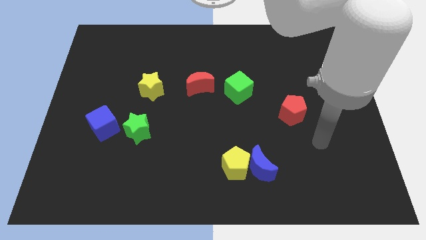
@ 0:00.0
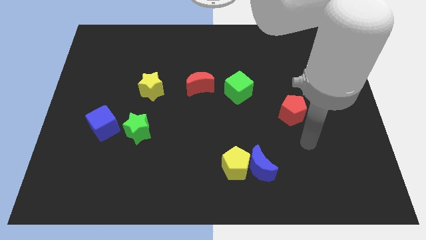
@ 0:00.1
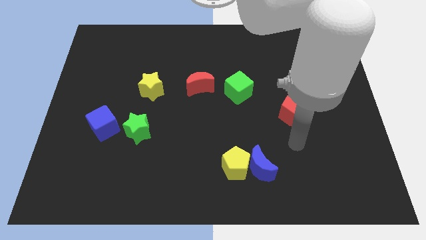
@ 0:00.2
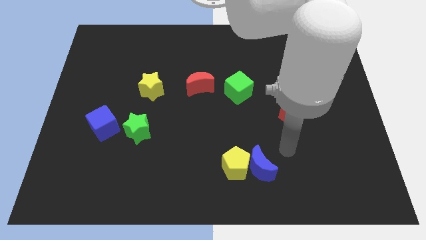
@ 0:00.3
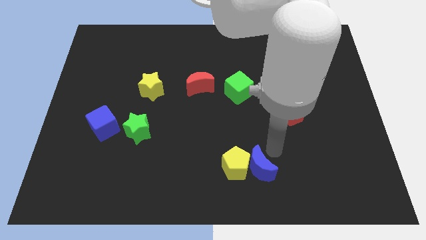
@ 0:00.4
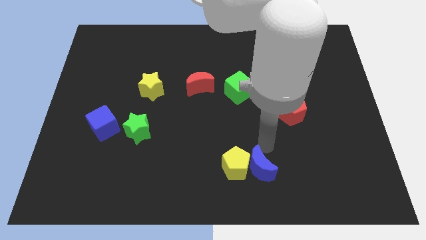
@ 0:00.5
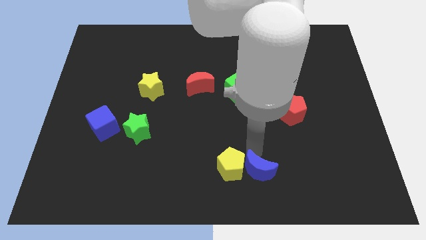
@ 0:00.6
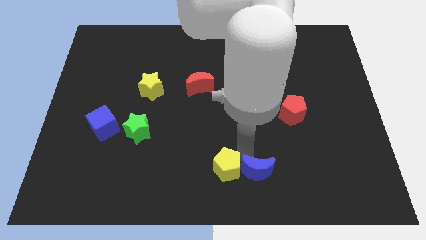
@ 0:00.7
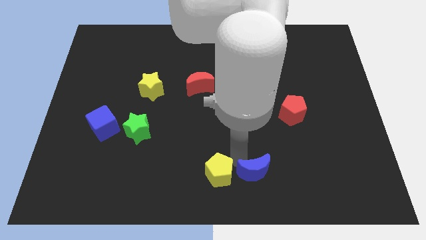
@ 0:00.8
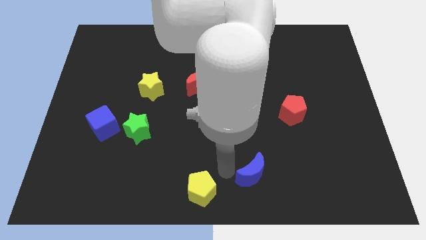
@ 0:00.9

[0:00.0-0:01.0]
move the blue moon away from the yellow pentagon

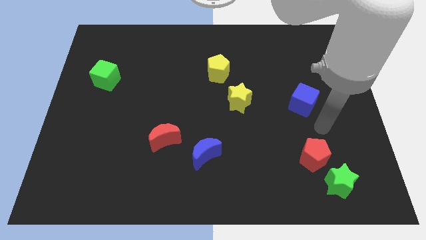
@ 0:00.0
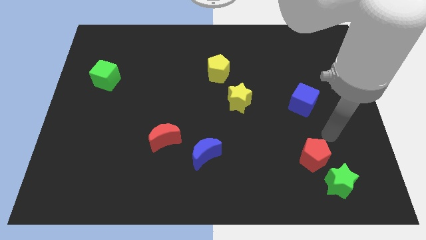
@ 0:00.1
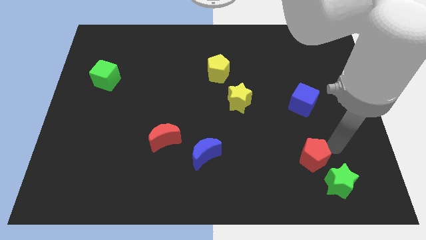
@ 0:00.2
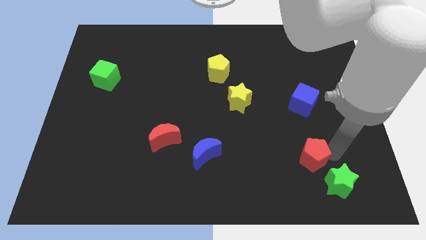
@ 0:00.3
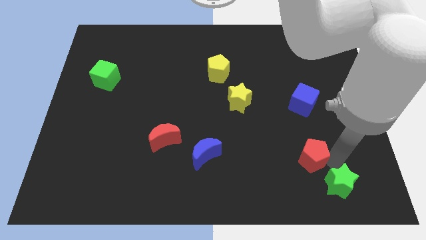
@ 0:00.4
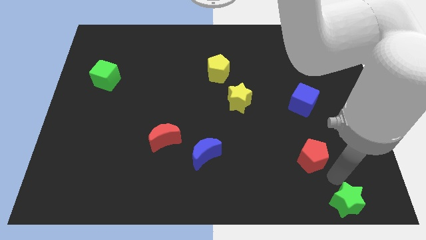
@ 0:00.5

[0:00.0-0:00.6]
pull the red pentagon apart from the green star

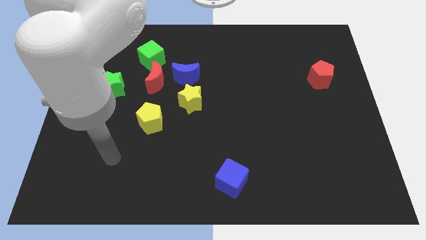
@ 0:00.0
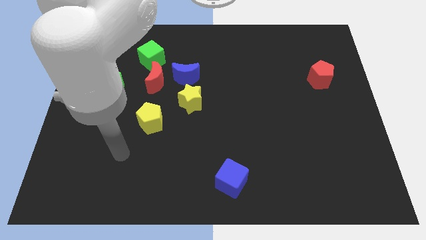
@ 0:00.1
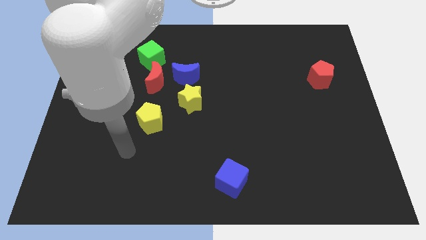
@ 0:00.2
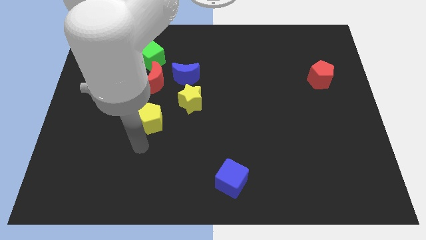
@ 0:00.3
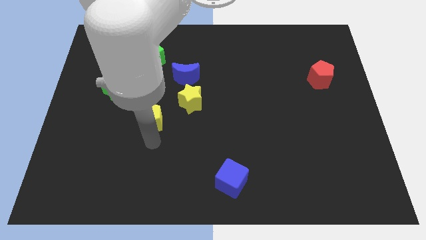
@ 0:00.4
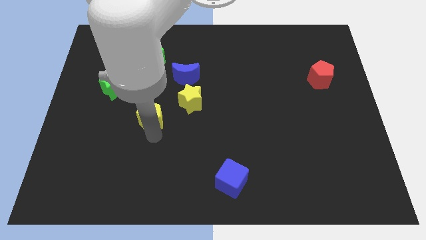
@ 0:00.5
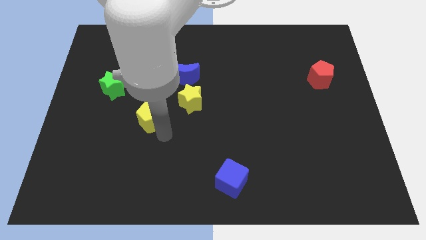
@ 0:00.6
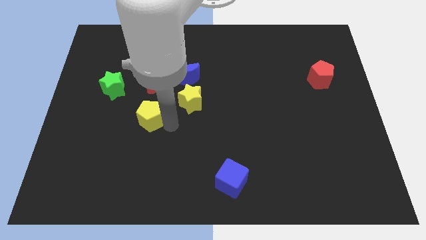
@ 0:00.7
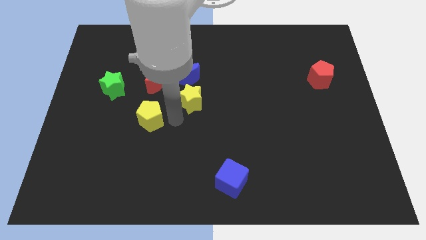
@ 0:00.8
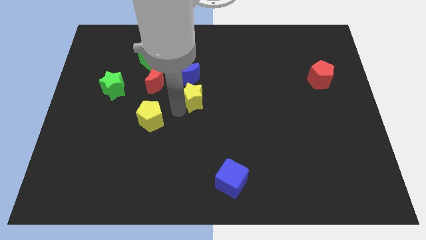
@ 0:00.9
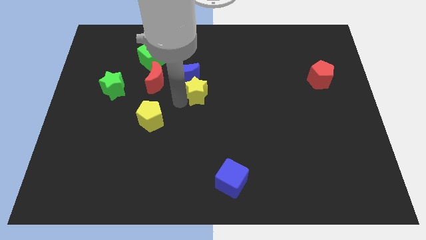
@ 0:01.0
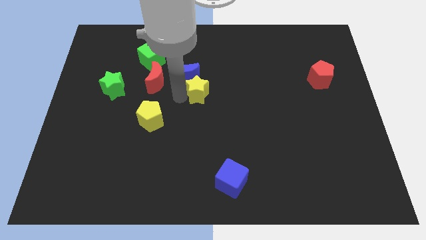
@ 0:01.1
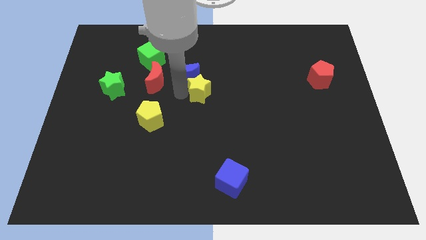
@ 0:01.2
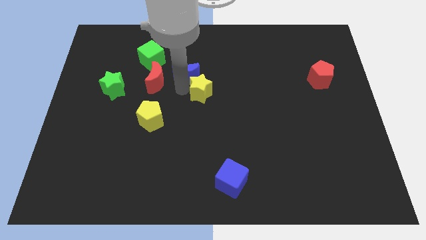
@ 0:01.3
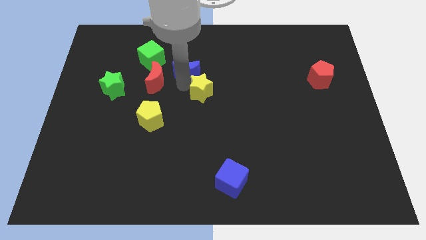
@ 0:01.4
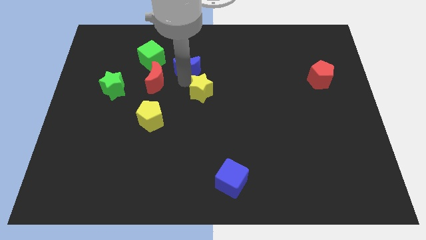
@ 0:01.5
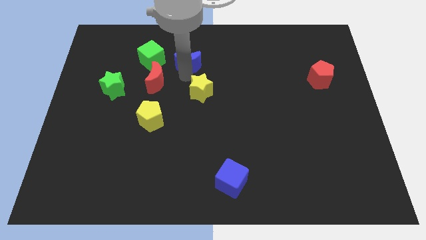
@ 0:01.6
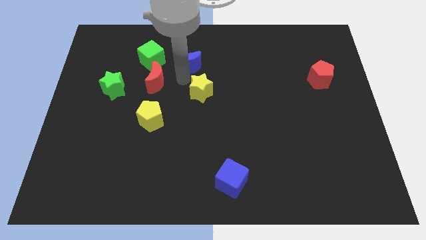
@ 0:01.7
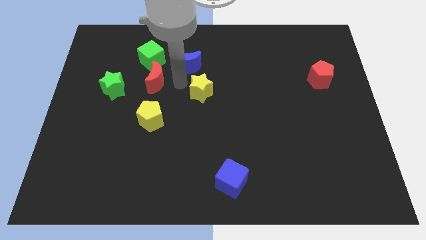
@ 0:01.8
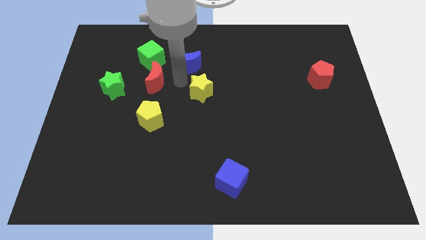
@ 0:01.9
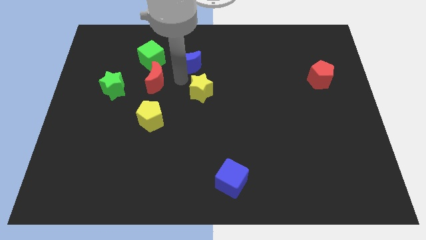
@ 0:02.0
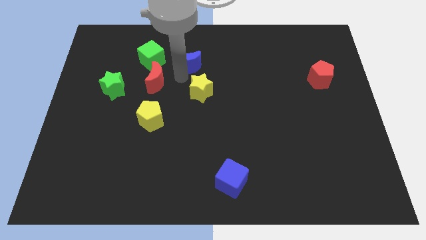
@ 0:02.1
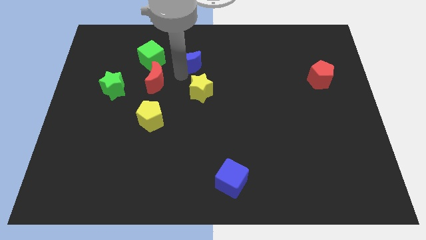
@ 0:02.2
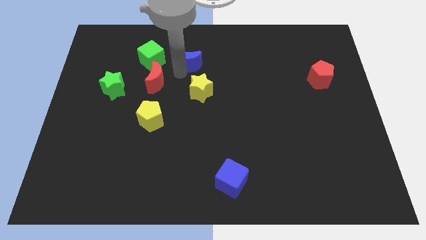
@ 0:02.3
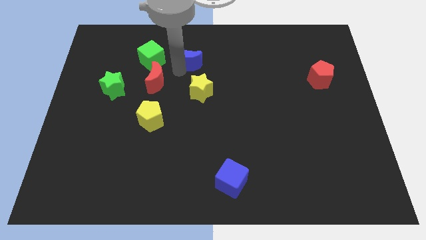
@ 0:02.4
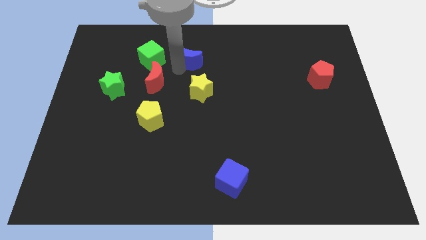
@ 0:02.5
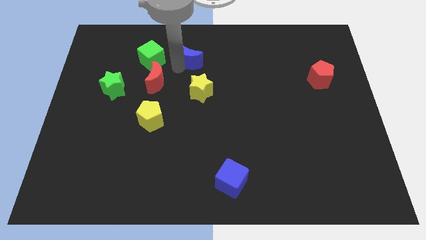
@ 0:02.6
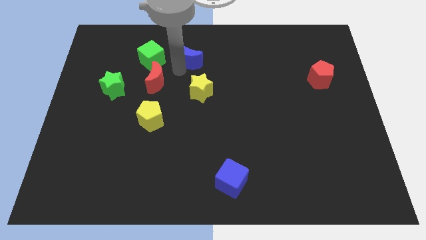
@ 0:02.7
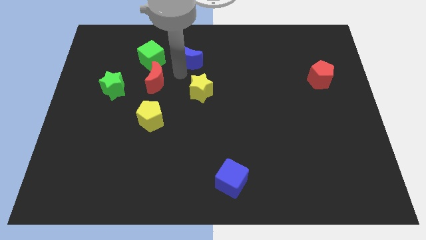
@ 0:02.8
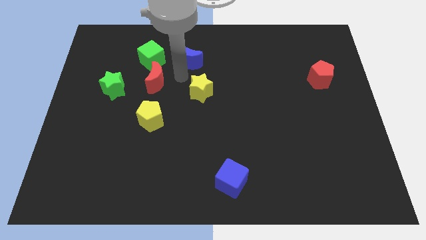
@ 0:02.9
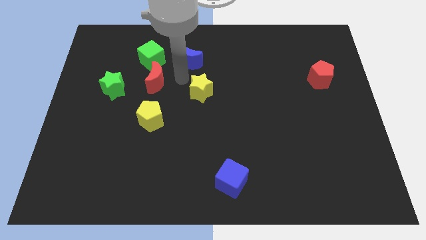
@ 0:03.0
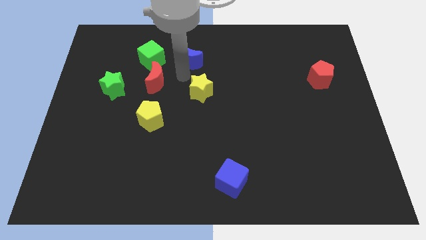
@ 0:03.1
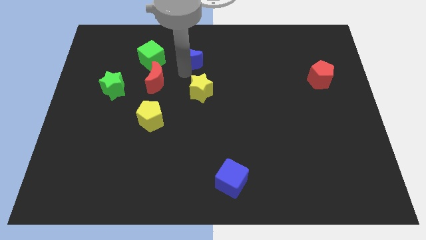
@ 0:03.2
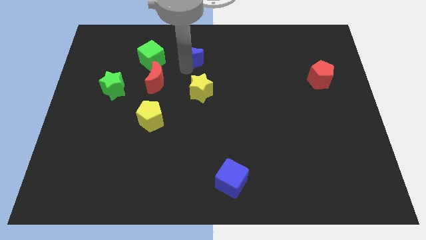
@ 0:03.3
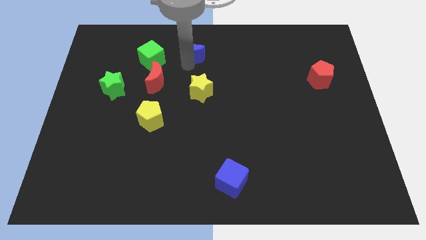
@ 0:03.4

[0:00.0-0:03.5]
pull the blue moon apart from the red moon and yellow star

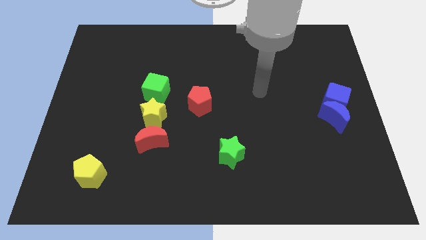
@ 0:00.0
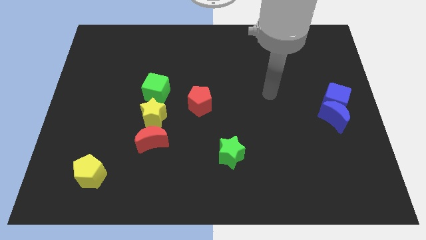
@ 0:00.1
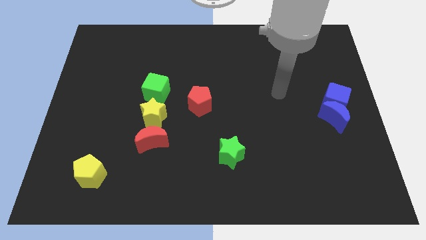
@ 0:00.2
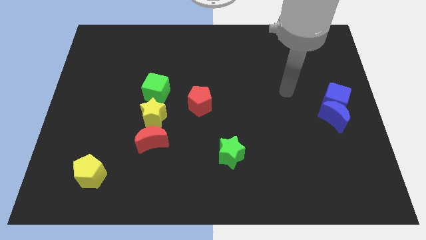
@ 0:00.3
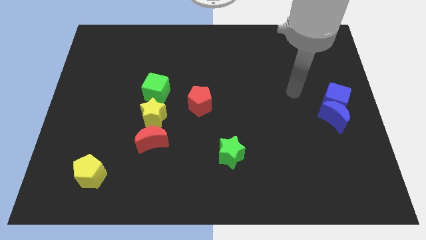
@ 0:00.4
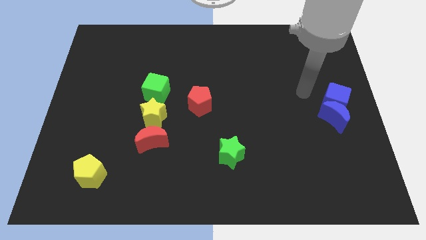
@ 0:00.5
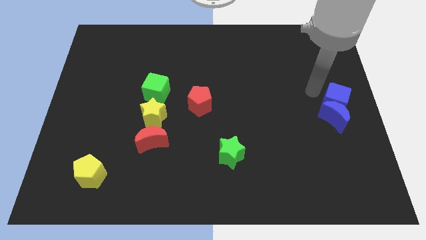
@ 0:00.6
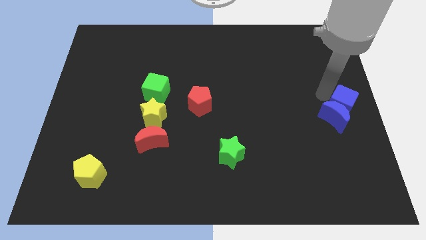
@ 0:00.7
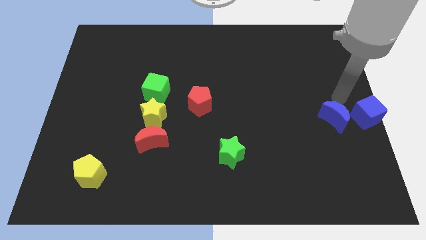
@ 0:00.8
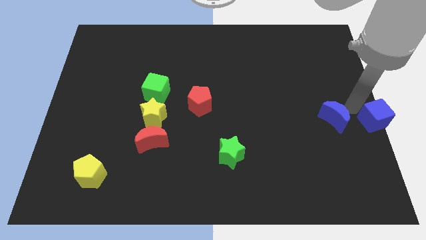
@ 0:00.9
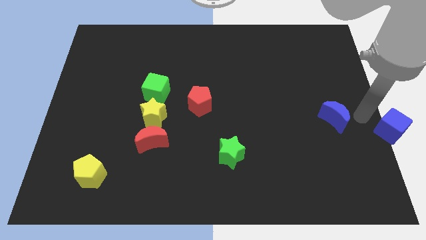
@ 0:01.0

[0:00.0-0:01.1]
separate the blue moon from the blue cube

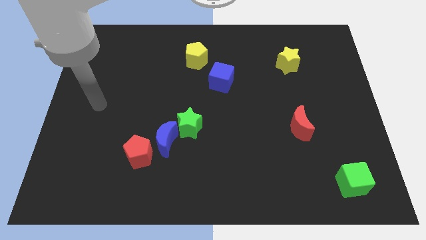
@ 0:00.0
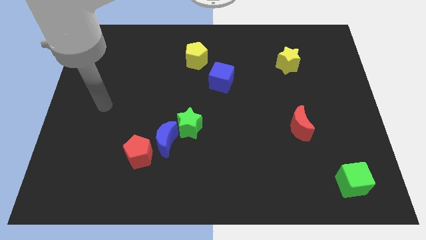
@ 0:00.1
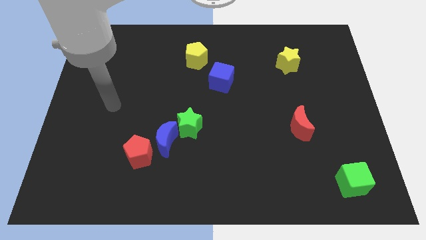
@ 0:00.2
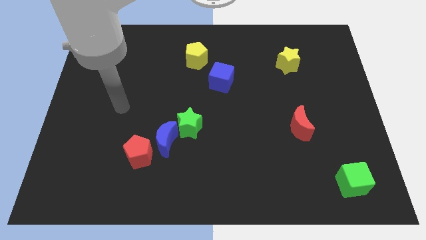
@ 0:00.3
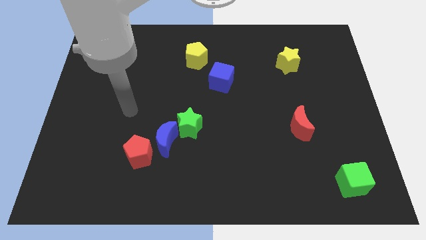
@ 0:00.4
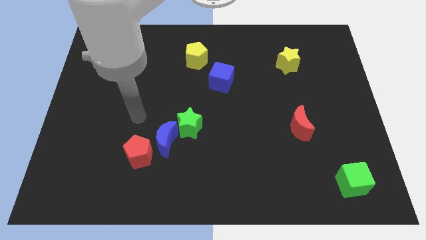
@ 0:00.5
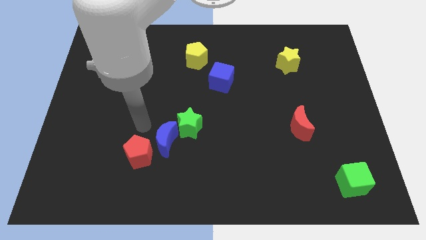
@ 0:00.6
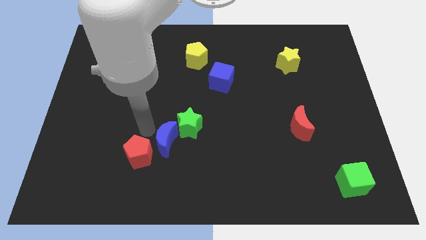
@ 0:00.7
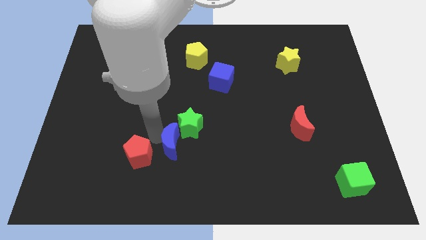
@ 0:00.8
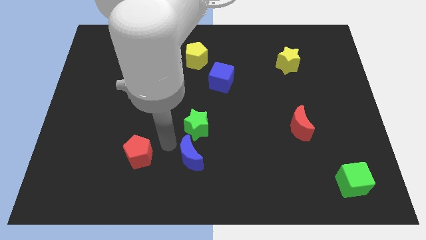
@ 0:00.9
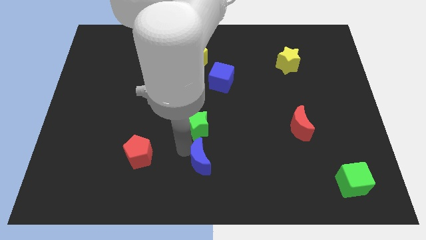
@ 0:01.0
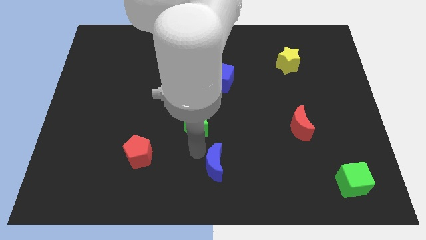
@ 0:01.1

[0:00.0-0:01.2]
separate the green star from the blue moon

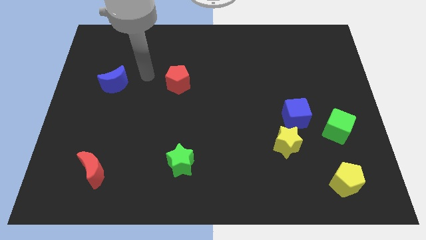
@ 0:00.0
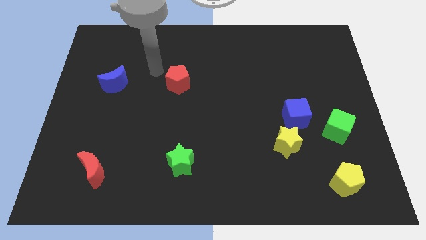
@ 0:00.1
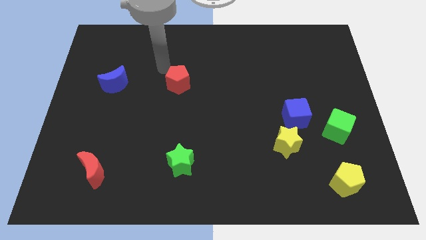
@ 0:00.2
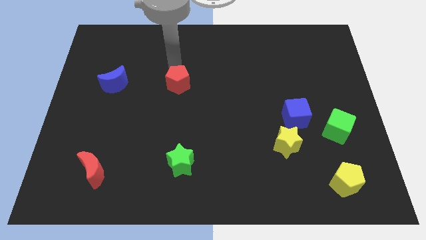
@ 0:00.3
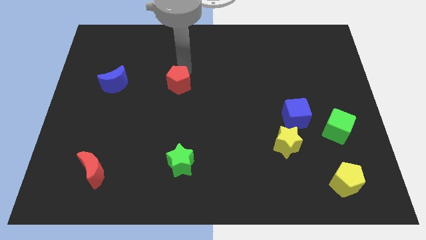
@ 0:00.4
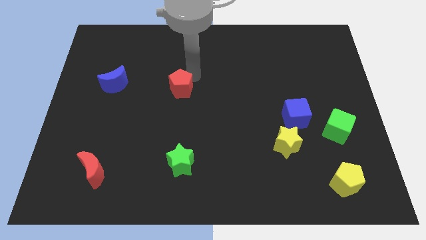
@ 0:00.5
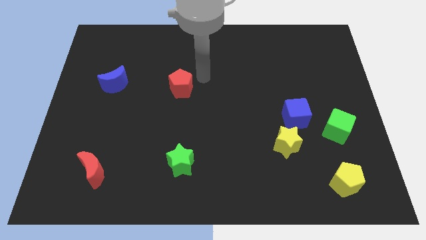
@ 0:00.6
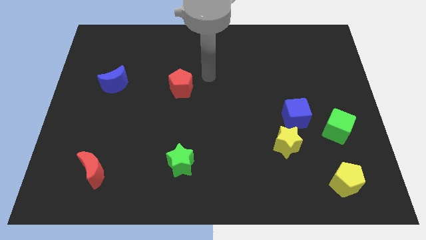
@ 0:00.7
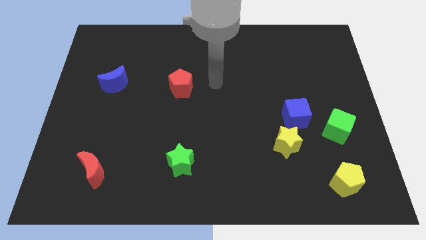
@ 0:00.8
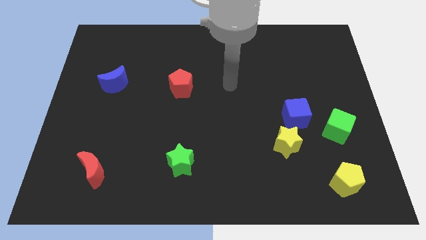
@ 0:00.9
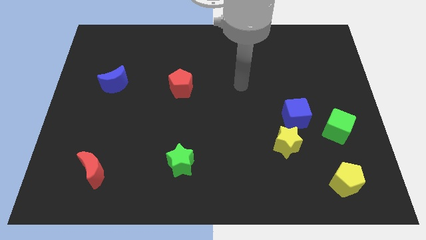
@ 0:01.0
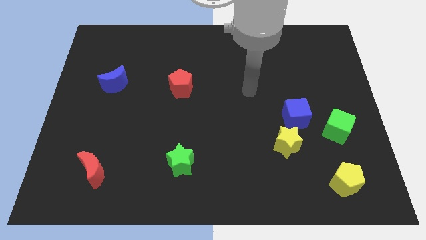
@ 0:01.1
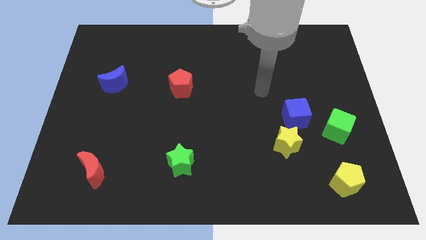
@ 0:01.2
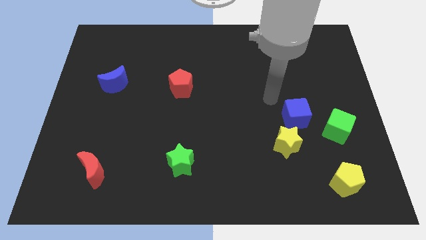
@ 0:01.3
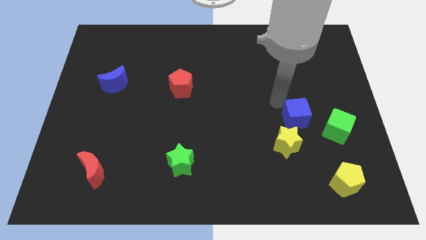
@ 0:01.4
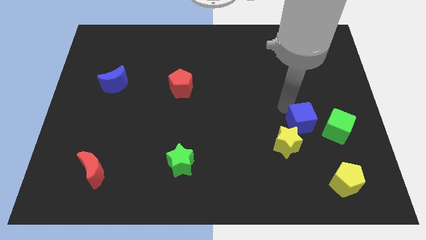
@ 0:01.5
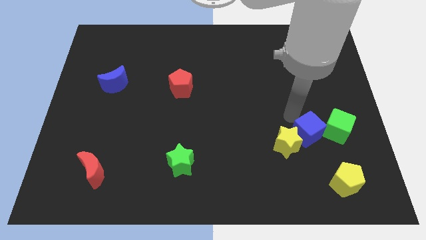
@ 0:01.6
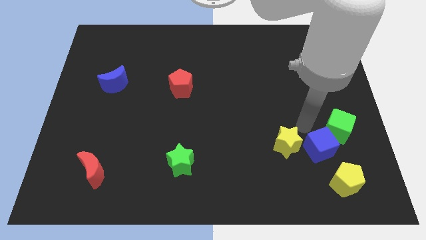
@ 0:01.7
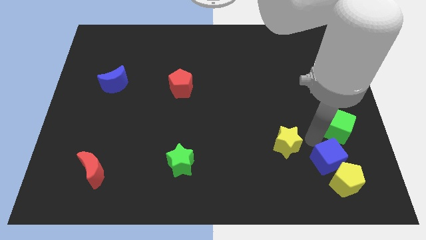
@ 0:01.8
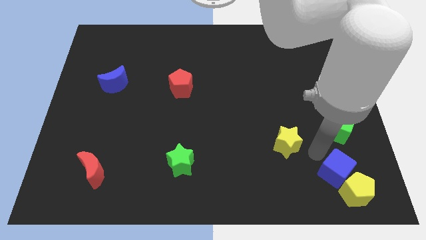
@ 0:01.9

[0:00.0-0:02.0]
move the yellow star away from the blue cube
